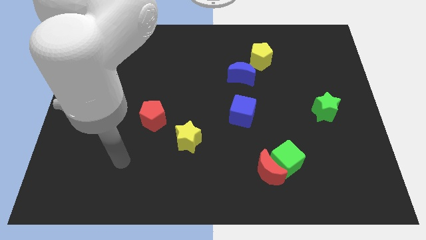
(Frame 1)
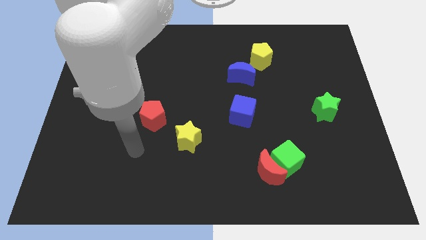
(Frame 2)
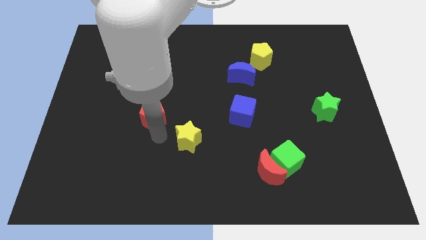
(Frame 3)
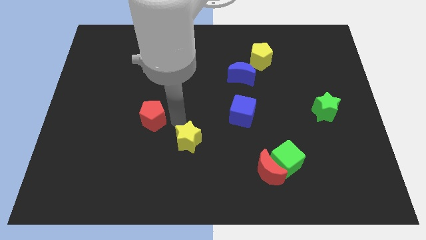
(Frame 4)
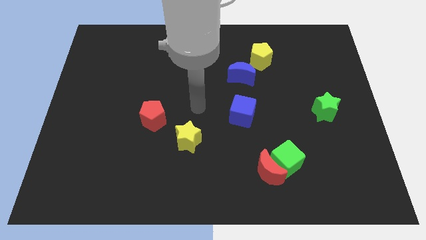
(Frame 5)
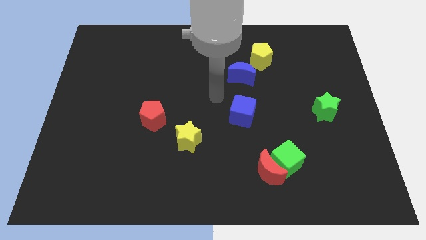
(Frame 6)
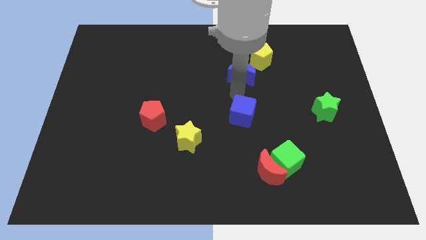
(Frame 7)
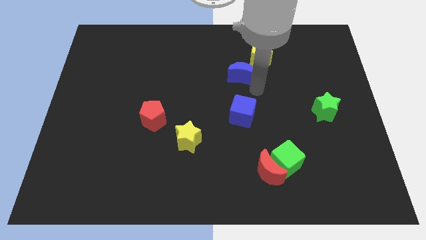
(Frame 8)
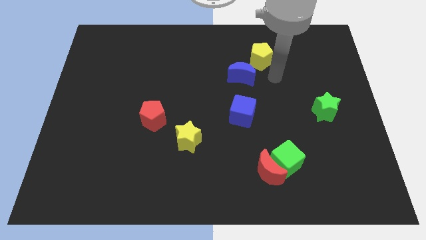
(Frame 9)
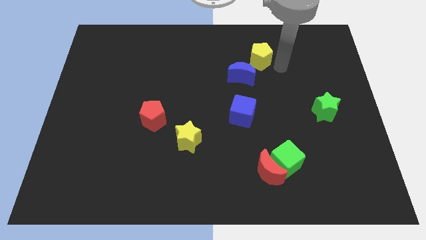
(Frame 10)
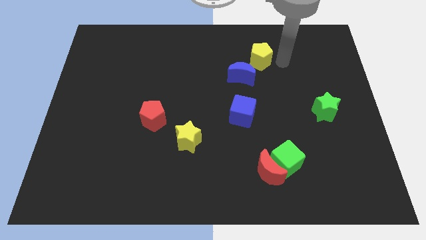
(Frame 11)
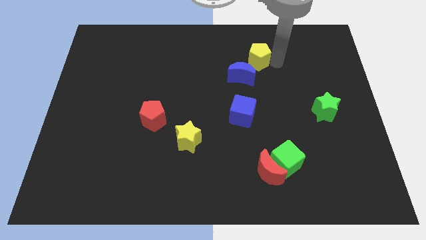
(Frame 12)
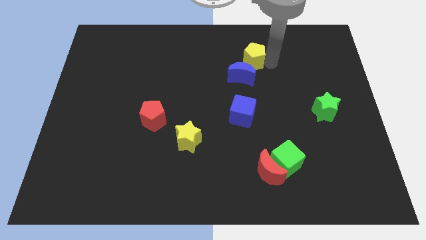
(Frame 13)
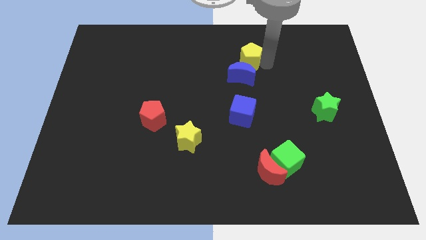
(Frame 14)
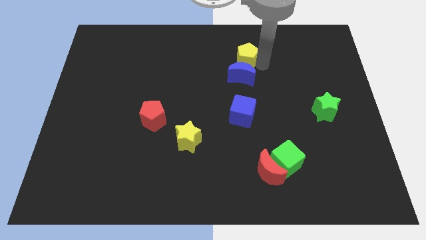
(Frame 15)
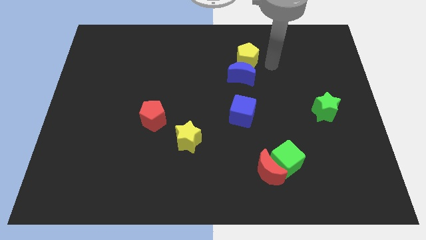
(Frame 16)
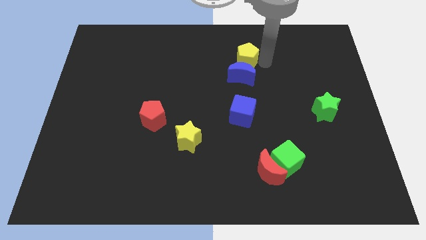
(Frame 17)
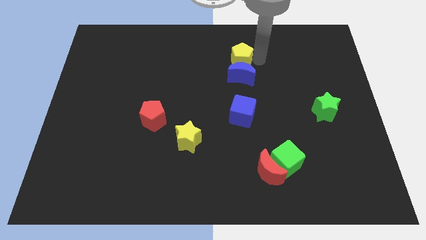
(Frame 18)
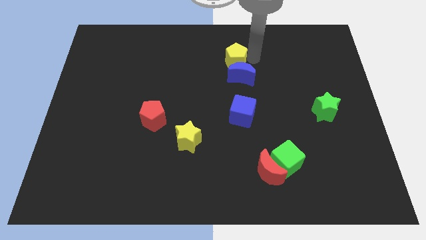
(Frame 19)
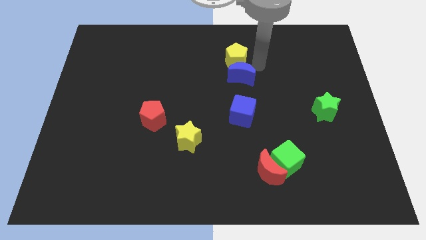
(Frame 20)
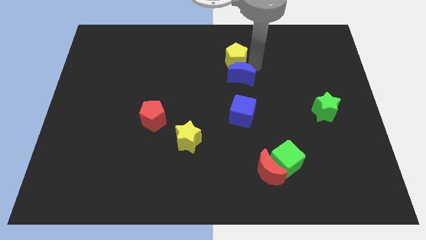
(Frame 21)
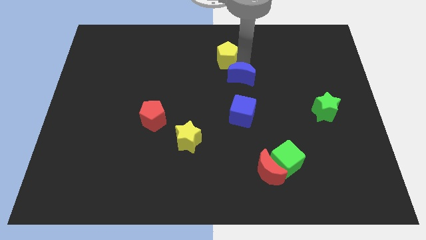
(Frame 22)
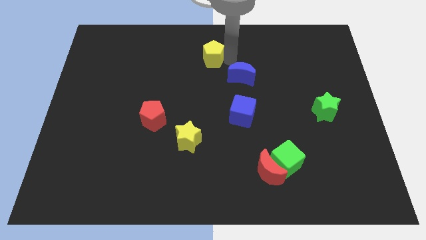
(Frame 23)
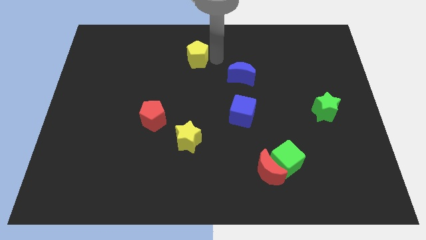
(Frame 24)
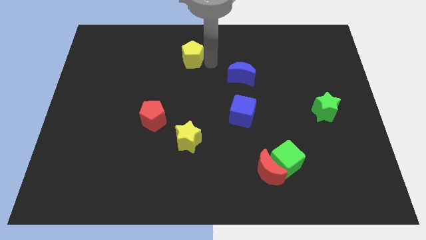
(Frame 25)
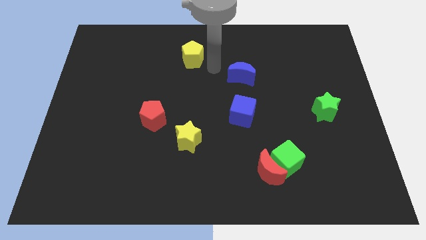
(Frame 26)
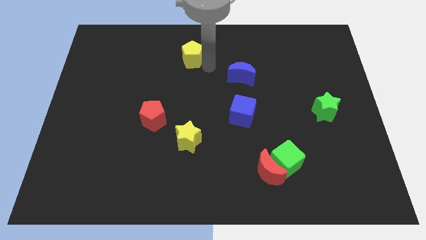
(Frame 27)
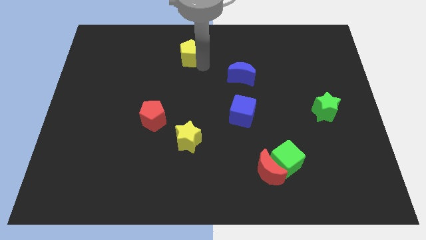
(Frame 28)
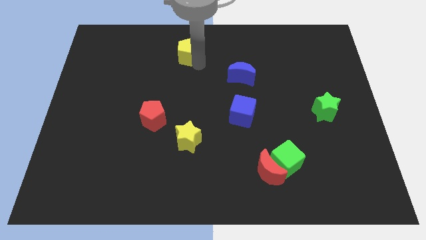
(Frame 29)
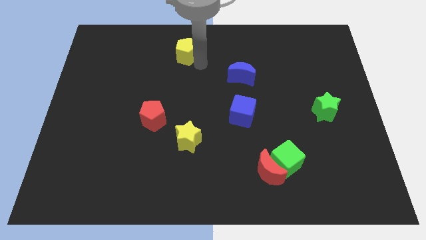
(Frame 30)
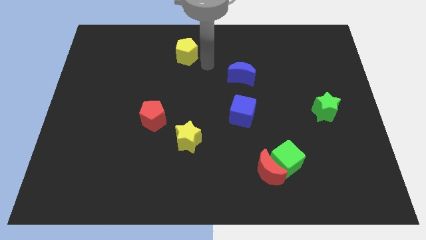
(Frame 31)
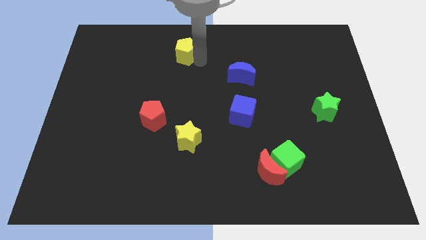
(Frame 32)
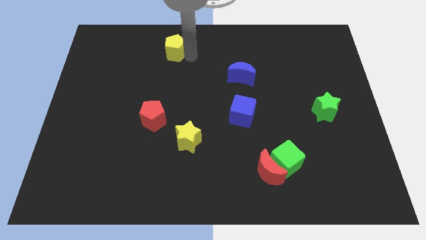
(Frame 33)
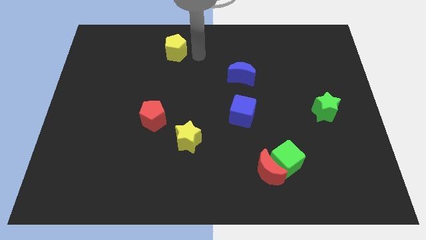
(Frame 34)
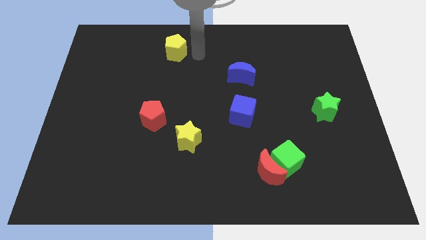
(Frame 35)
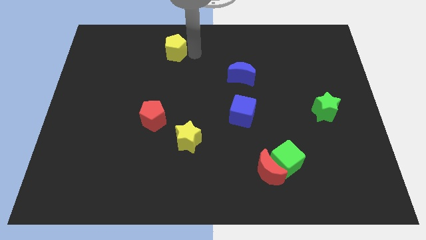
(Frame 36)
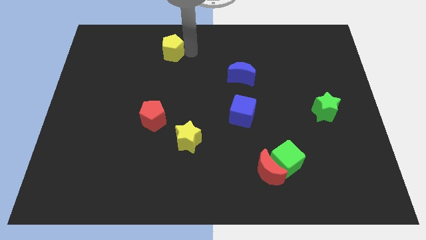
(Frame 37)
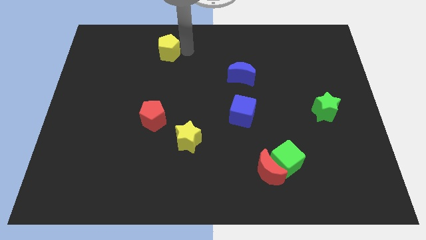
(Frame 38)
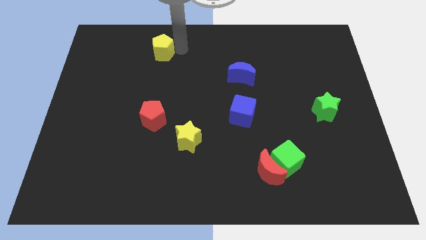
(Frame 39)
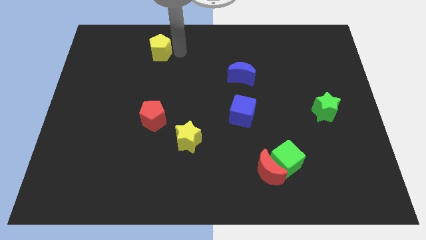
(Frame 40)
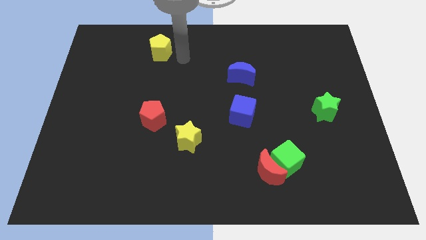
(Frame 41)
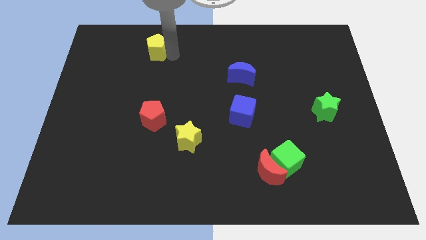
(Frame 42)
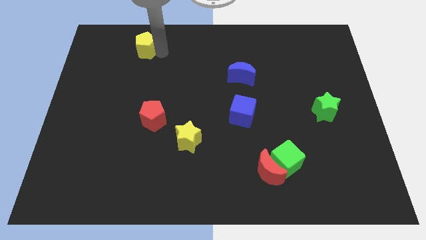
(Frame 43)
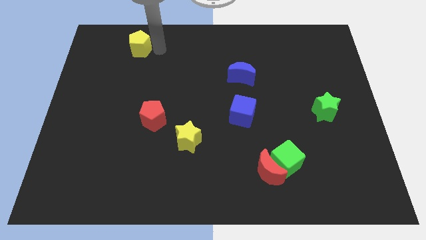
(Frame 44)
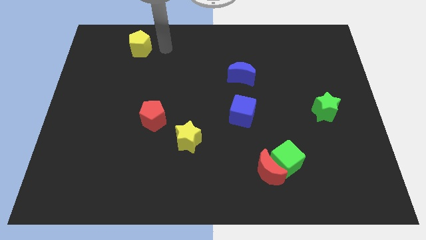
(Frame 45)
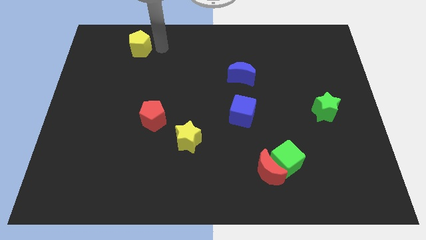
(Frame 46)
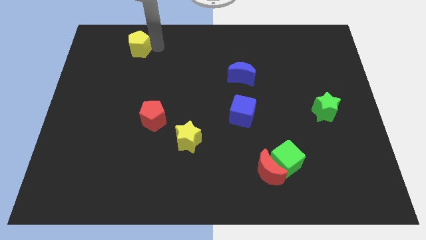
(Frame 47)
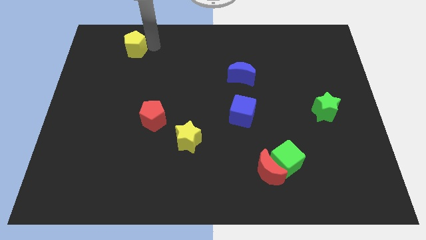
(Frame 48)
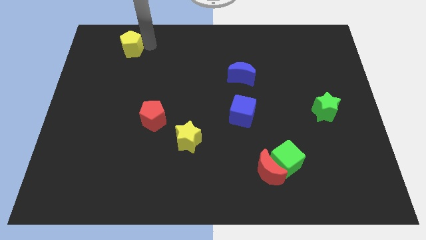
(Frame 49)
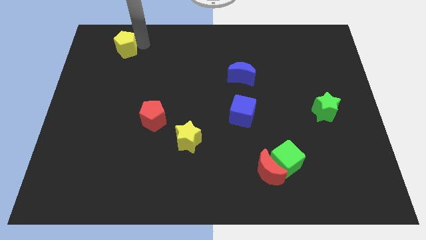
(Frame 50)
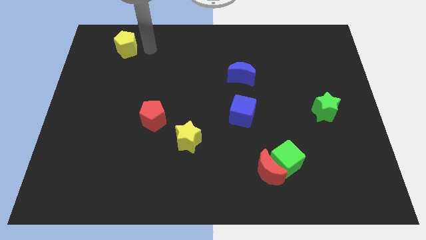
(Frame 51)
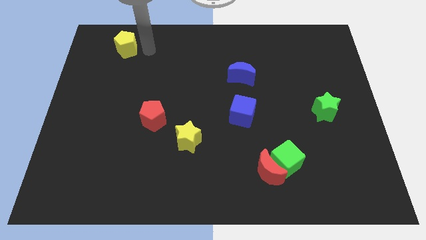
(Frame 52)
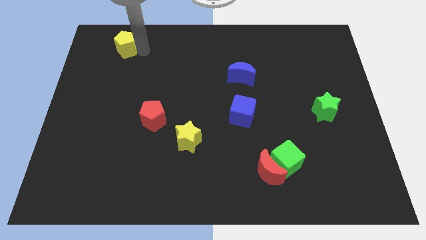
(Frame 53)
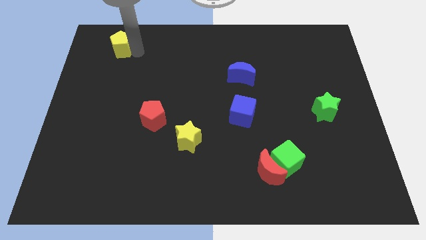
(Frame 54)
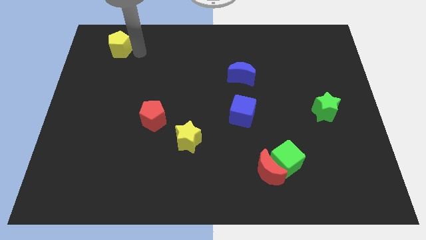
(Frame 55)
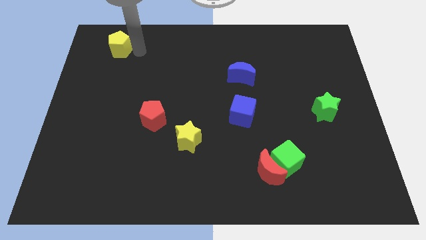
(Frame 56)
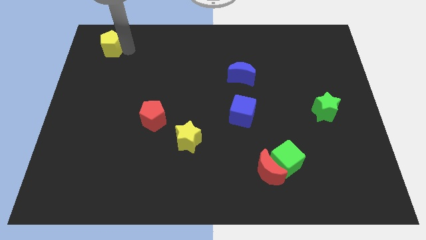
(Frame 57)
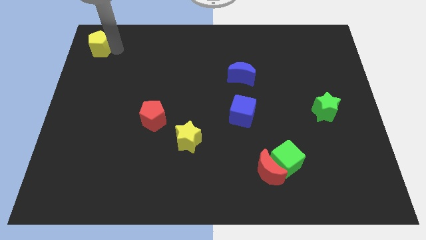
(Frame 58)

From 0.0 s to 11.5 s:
slide the yellow pentagon to the top left corner

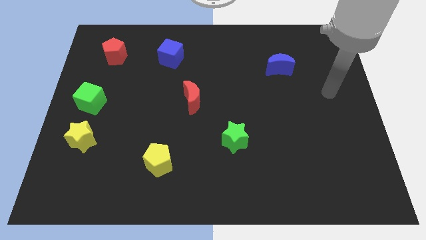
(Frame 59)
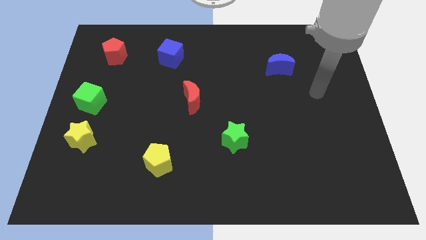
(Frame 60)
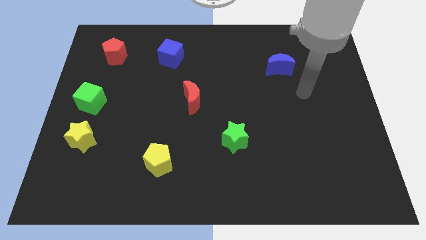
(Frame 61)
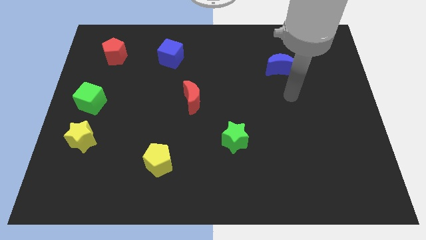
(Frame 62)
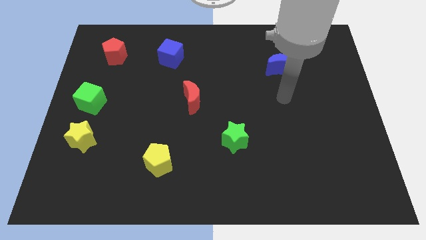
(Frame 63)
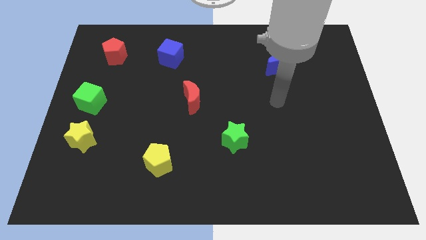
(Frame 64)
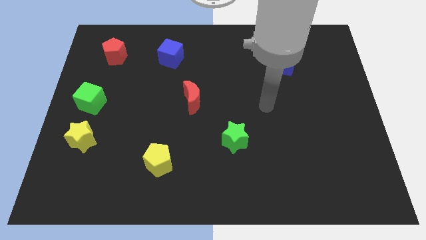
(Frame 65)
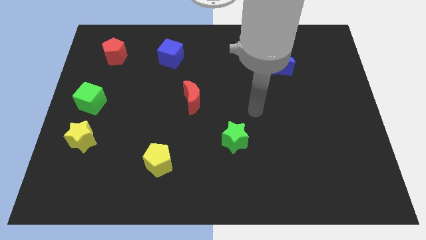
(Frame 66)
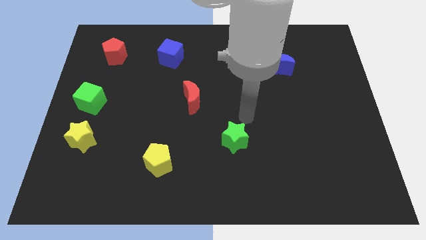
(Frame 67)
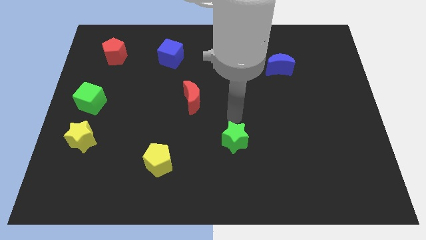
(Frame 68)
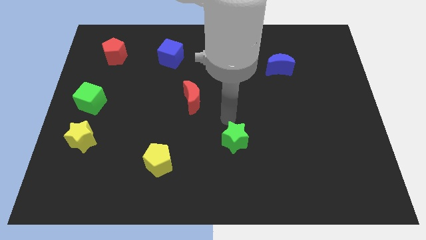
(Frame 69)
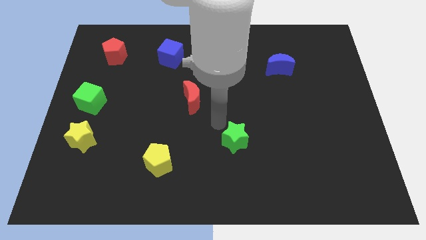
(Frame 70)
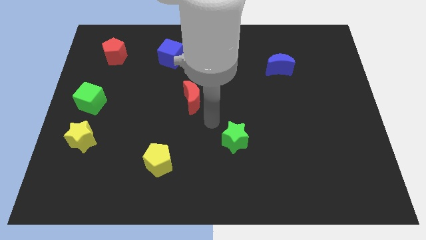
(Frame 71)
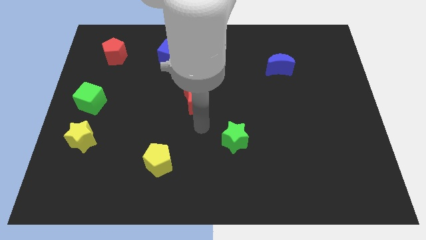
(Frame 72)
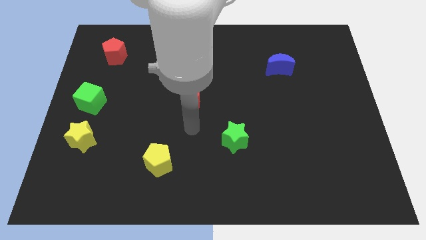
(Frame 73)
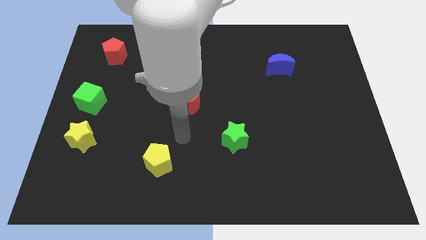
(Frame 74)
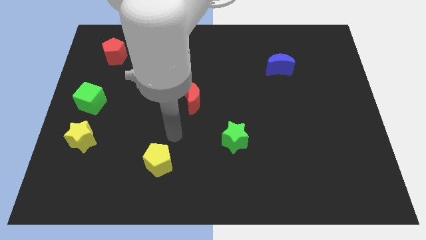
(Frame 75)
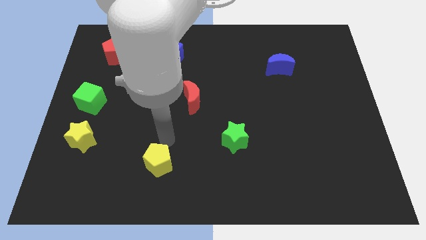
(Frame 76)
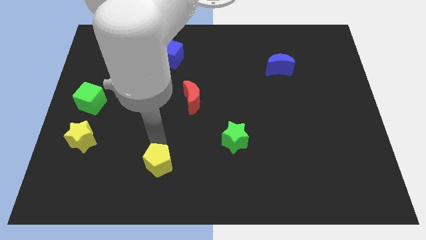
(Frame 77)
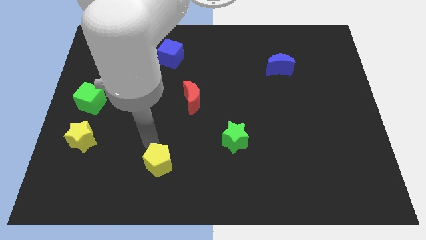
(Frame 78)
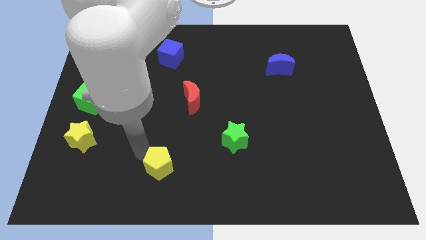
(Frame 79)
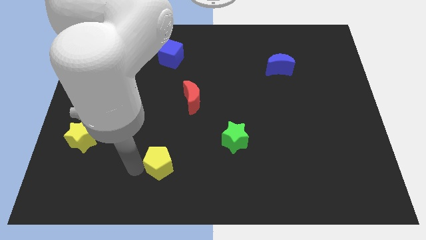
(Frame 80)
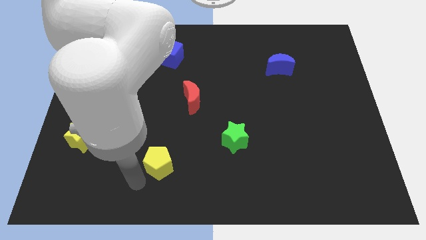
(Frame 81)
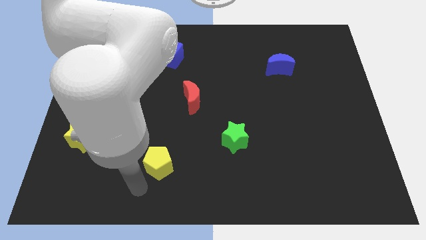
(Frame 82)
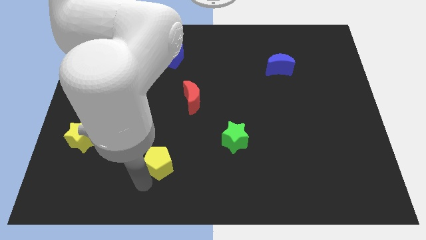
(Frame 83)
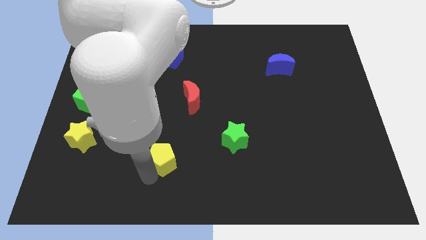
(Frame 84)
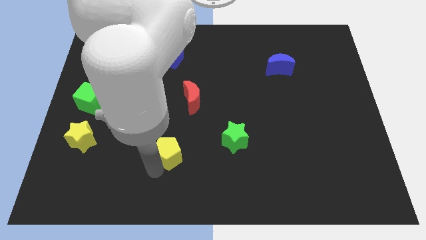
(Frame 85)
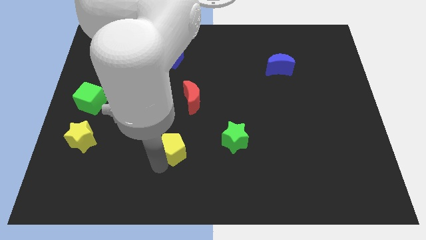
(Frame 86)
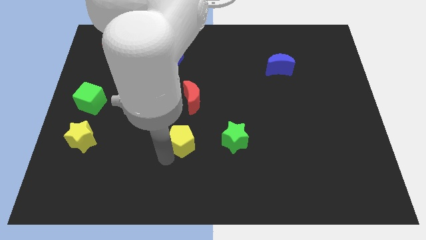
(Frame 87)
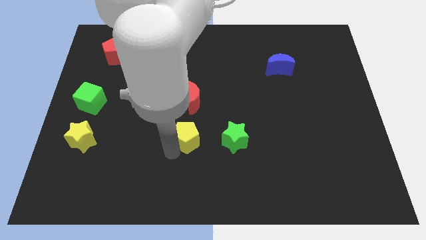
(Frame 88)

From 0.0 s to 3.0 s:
slide the yellow pentagon to the center
